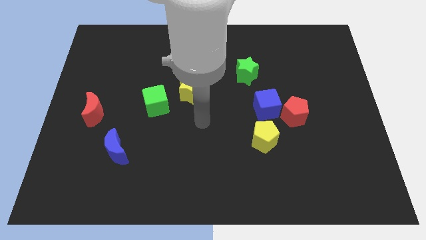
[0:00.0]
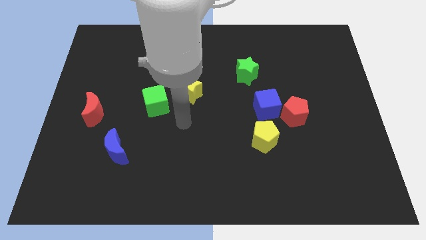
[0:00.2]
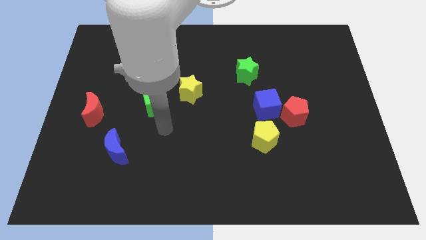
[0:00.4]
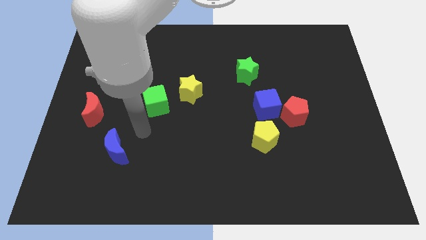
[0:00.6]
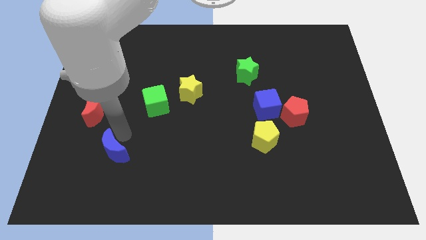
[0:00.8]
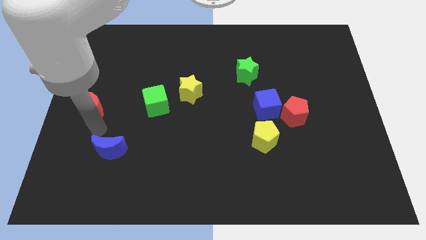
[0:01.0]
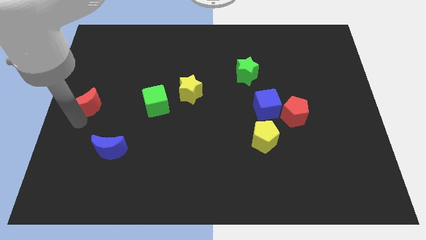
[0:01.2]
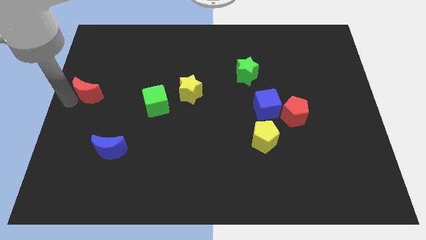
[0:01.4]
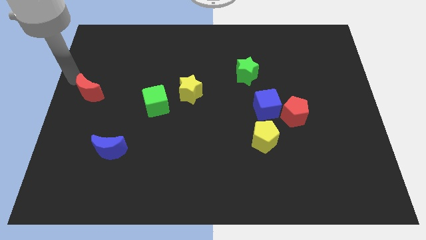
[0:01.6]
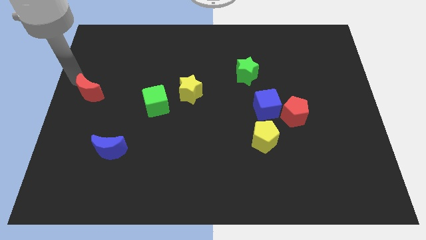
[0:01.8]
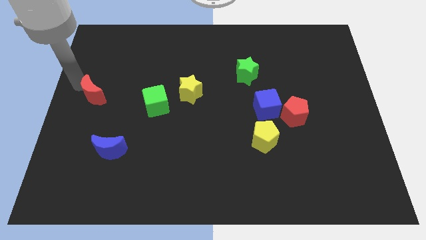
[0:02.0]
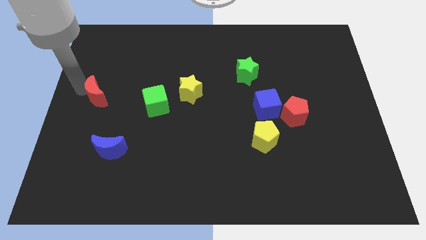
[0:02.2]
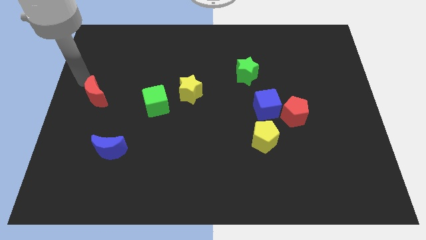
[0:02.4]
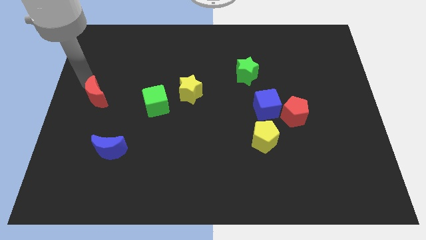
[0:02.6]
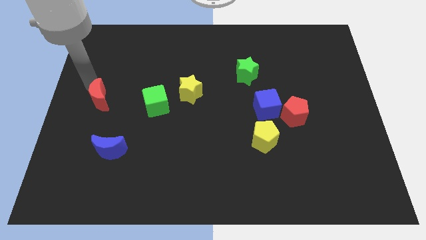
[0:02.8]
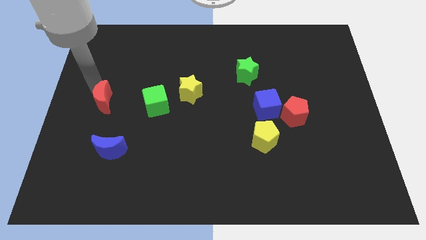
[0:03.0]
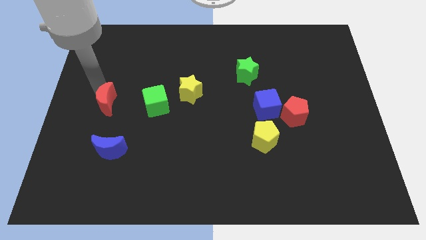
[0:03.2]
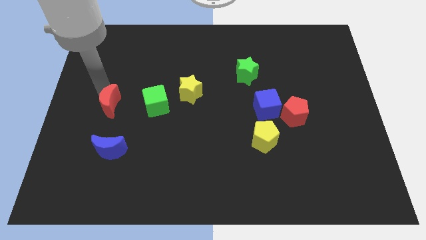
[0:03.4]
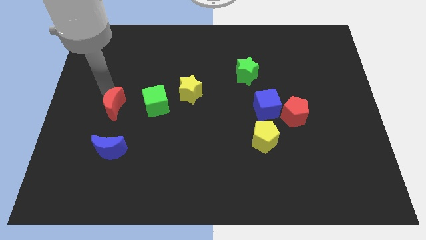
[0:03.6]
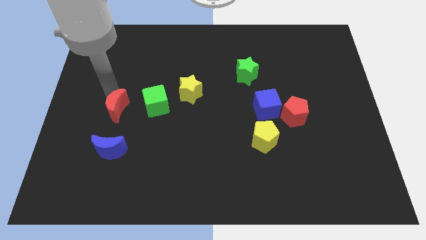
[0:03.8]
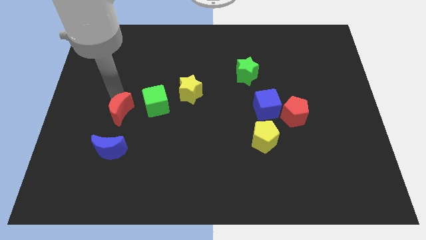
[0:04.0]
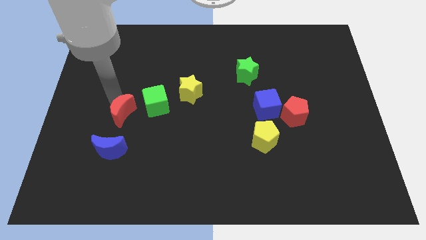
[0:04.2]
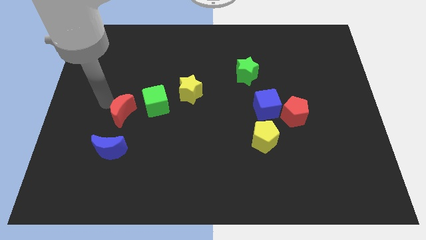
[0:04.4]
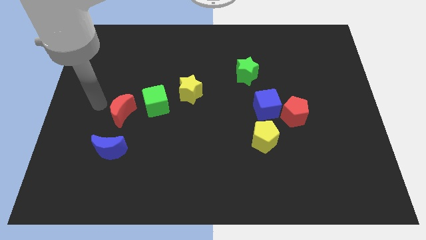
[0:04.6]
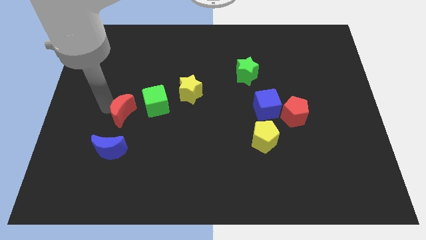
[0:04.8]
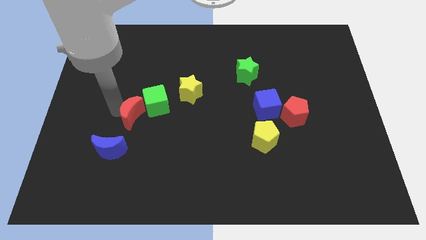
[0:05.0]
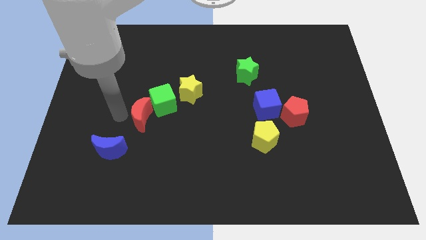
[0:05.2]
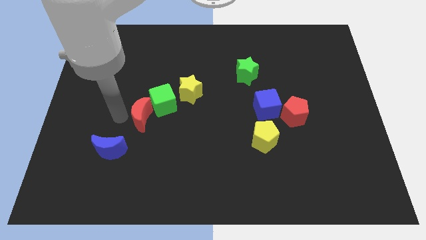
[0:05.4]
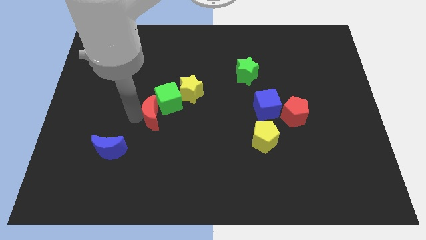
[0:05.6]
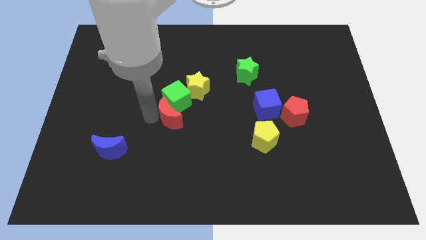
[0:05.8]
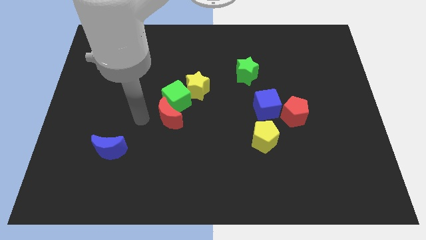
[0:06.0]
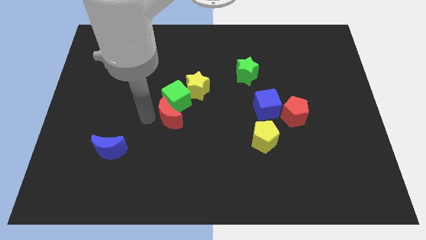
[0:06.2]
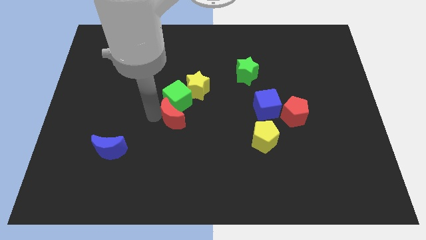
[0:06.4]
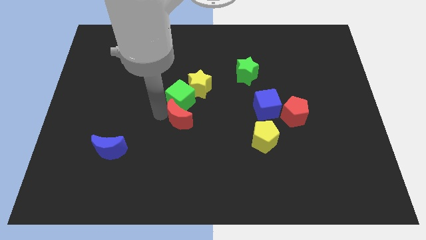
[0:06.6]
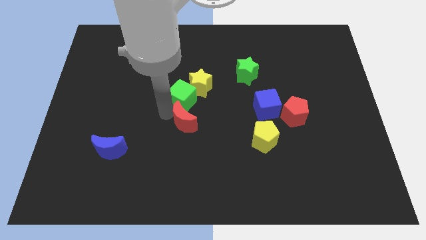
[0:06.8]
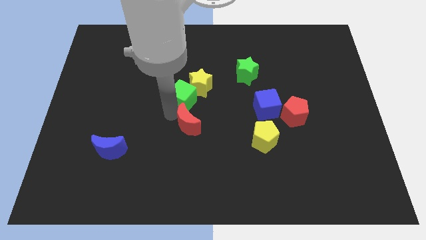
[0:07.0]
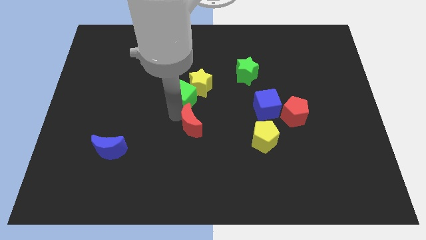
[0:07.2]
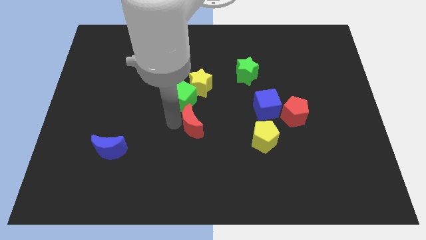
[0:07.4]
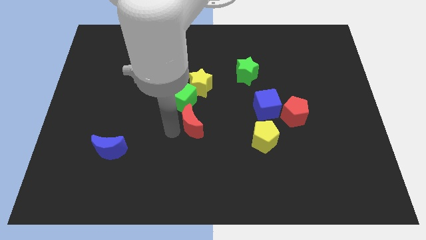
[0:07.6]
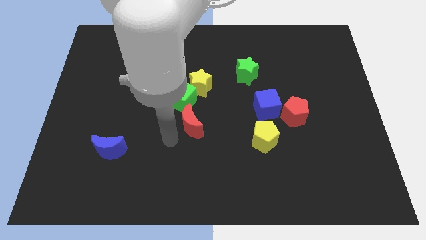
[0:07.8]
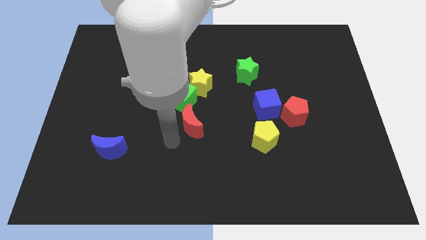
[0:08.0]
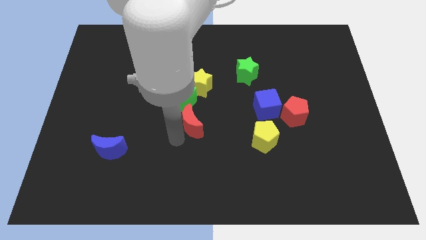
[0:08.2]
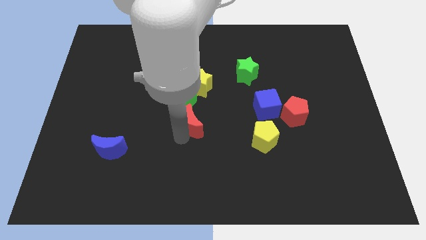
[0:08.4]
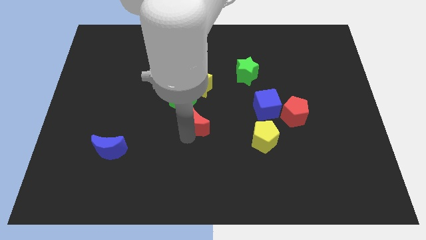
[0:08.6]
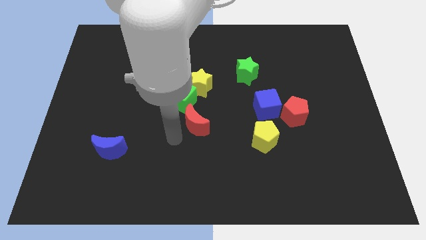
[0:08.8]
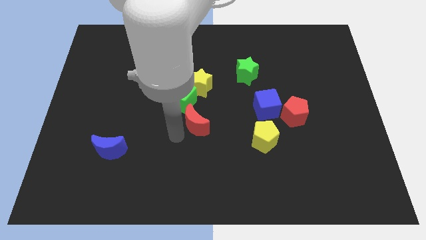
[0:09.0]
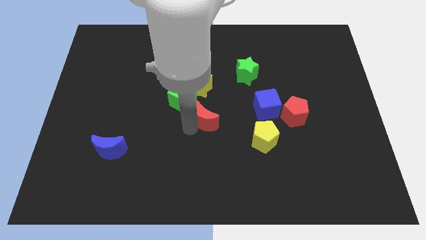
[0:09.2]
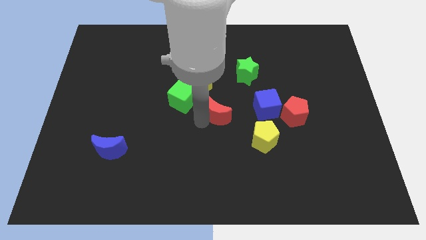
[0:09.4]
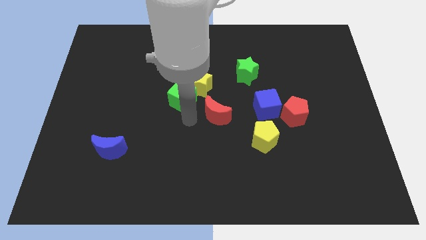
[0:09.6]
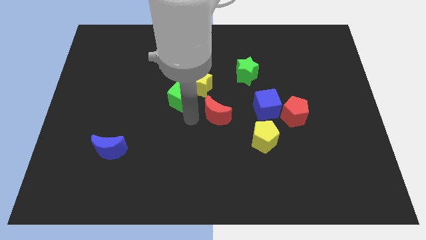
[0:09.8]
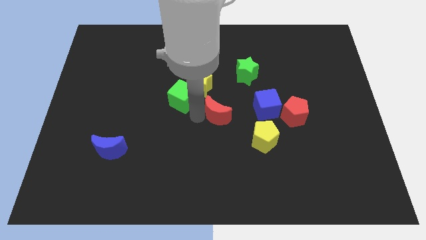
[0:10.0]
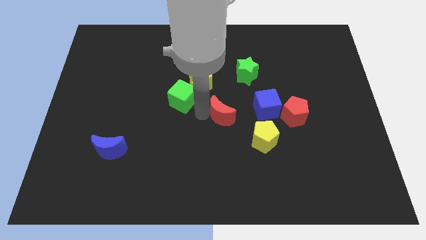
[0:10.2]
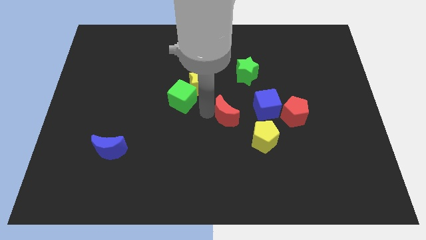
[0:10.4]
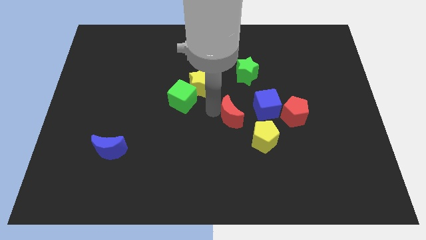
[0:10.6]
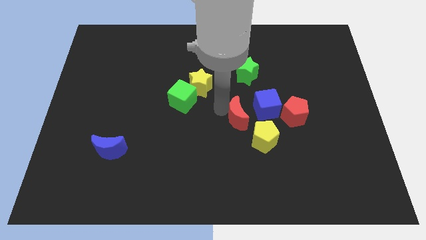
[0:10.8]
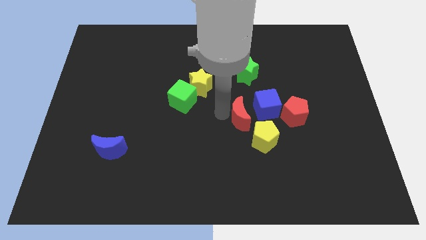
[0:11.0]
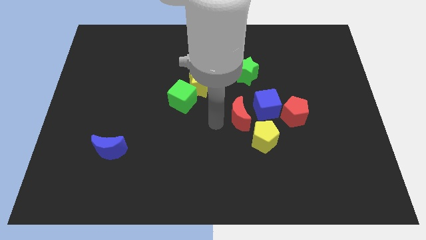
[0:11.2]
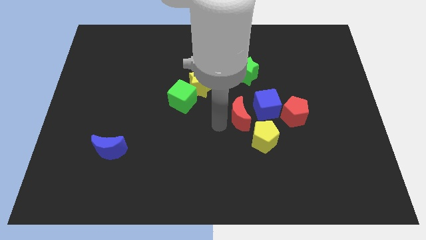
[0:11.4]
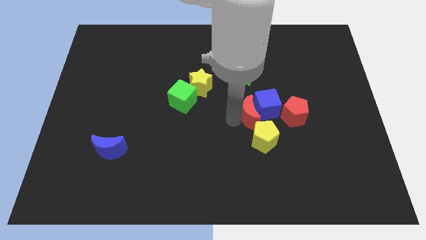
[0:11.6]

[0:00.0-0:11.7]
push the red moon towards the blue cube

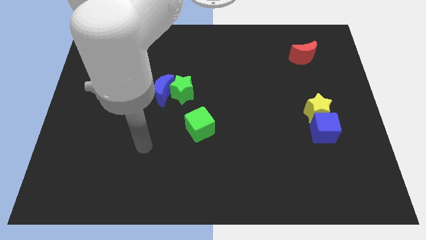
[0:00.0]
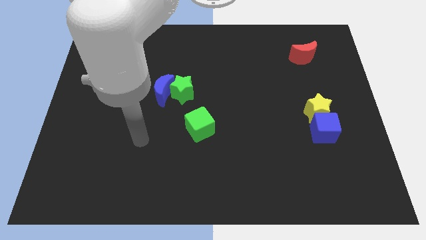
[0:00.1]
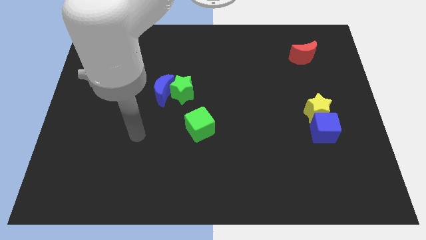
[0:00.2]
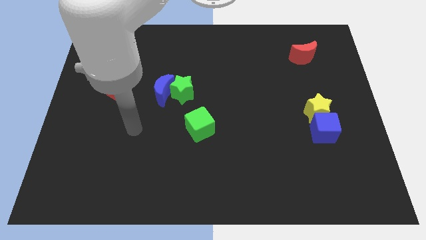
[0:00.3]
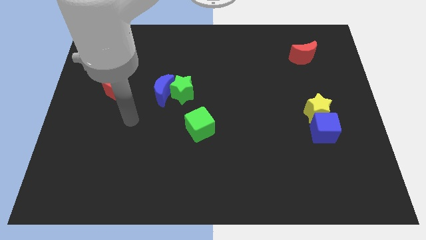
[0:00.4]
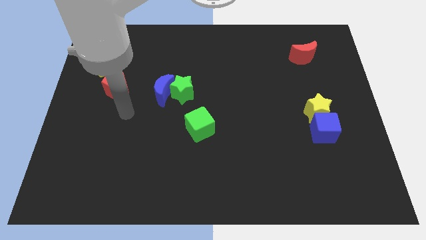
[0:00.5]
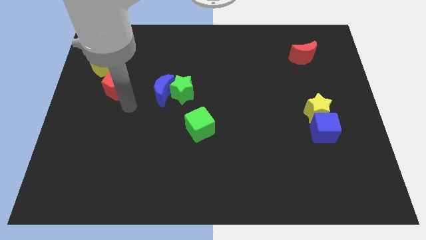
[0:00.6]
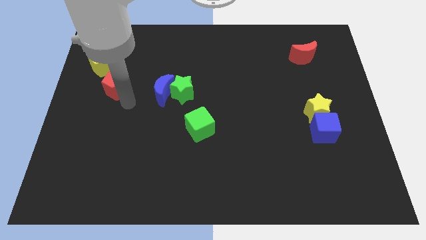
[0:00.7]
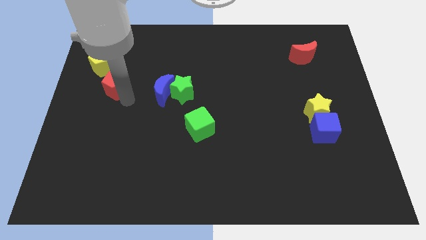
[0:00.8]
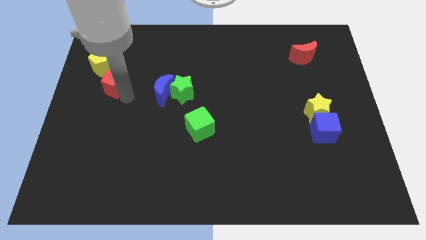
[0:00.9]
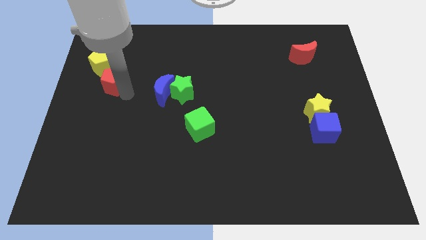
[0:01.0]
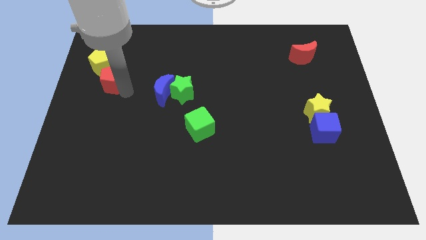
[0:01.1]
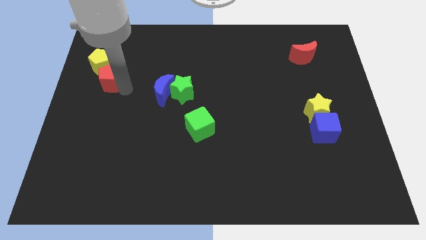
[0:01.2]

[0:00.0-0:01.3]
slide the red pentagon close to the yellow pentagon

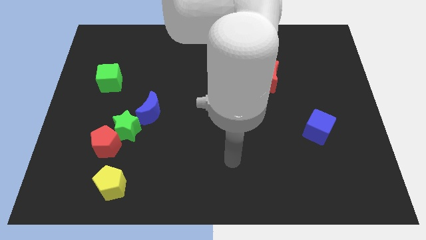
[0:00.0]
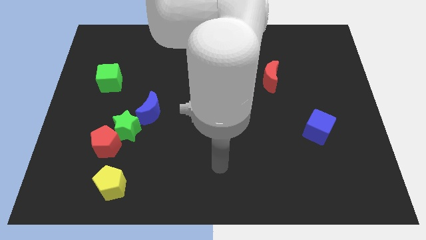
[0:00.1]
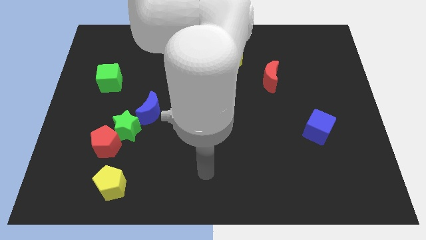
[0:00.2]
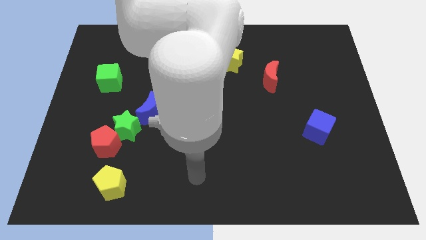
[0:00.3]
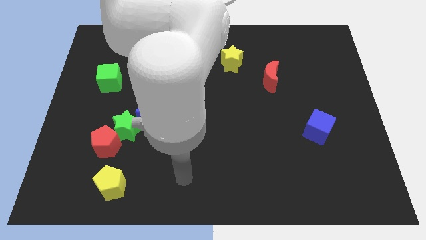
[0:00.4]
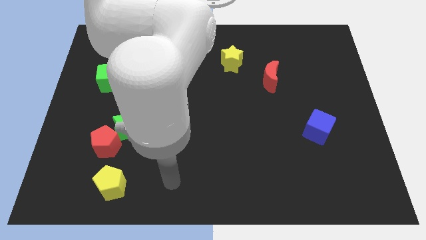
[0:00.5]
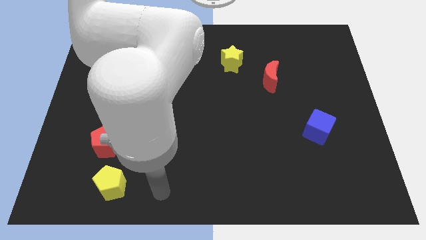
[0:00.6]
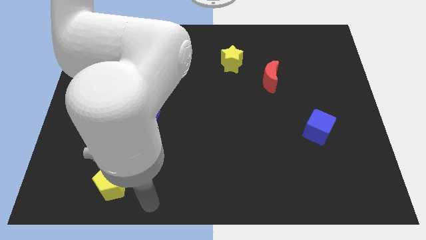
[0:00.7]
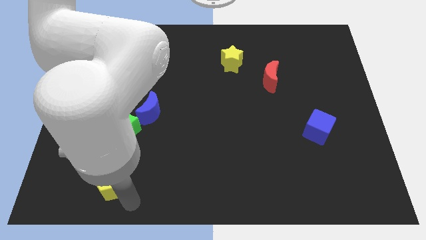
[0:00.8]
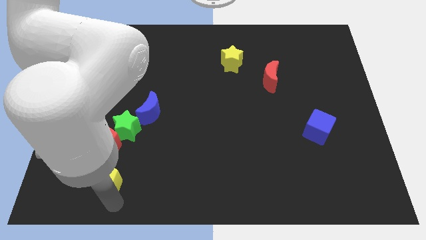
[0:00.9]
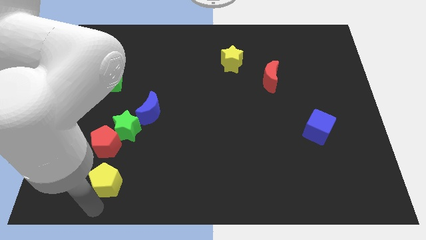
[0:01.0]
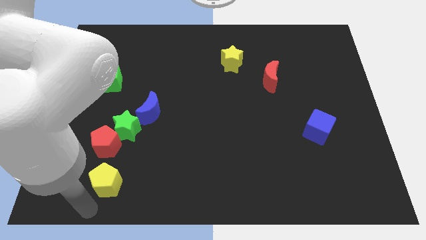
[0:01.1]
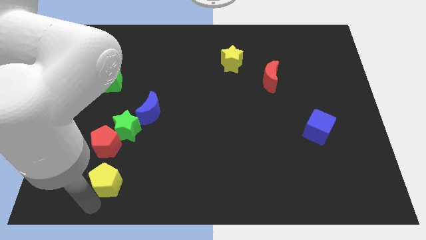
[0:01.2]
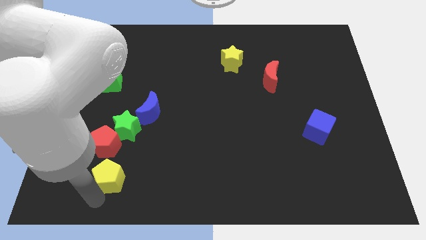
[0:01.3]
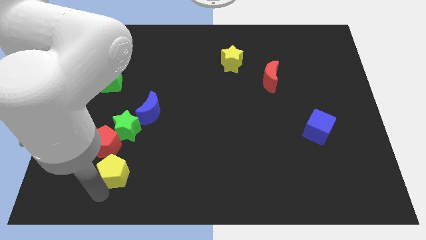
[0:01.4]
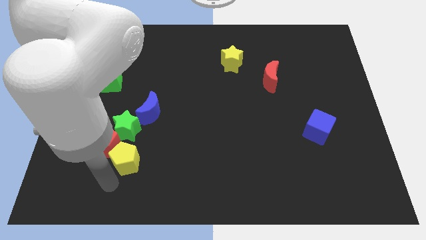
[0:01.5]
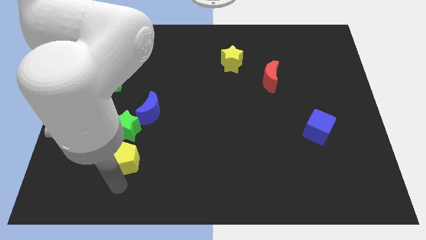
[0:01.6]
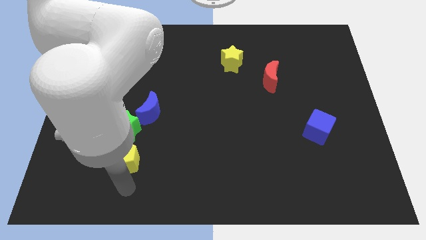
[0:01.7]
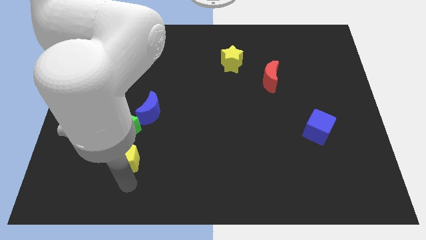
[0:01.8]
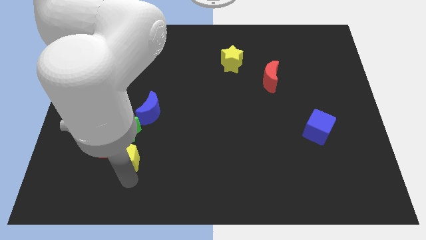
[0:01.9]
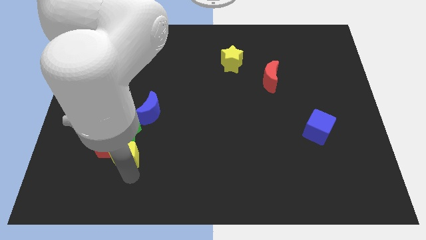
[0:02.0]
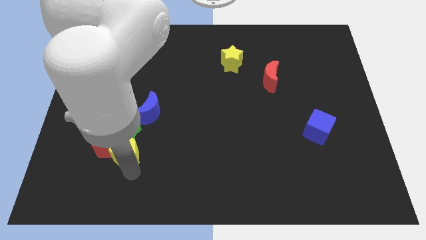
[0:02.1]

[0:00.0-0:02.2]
slide the yellow pentagon towards the green star
